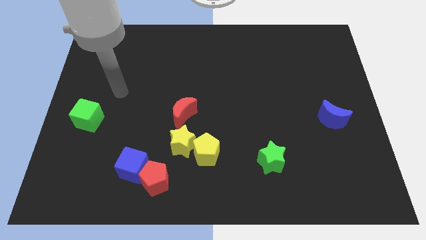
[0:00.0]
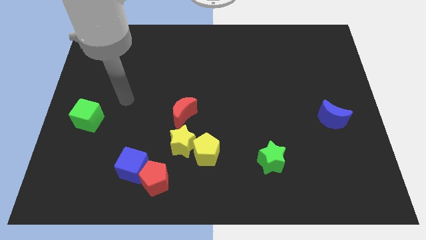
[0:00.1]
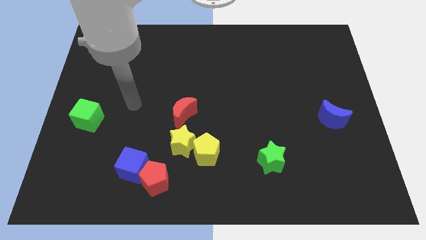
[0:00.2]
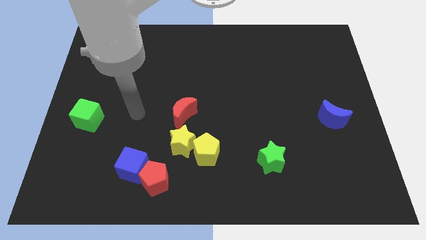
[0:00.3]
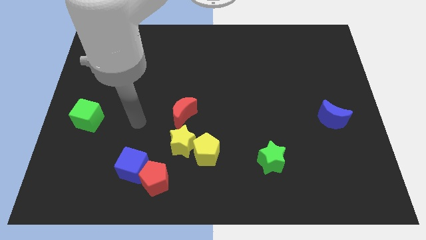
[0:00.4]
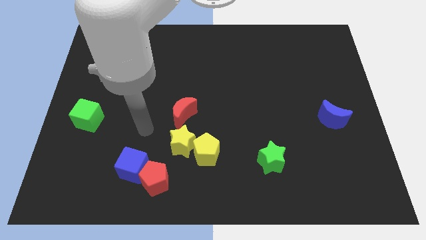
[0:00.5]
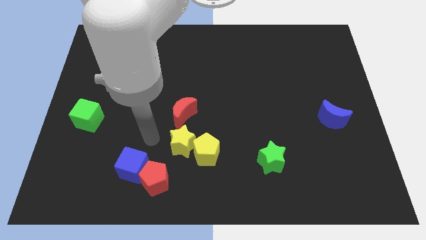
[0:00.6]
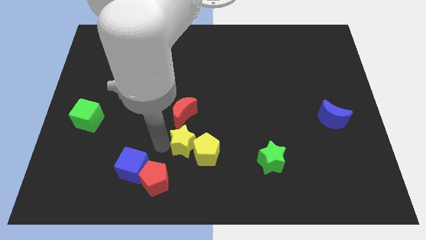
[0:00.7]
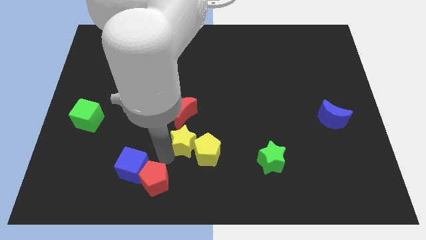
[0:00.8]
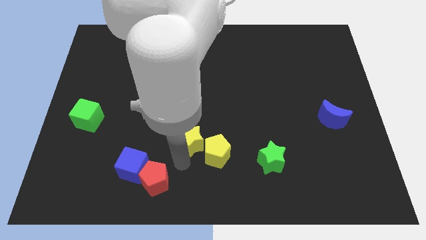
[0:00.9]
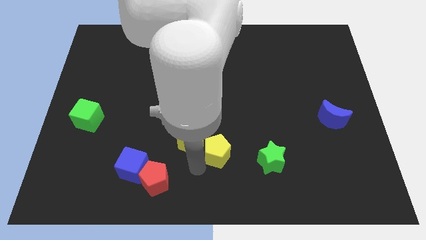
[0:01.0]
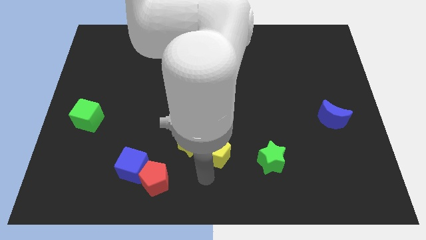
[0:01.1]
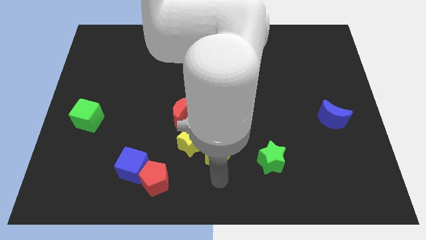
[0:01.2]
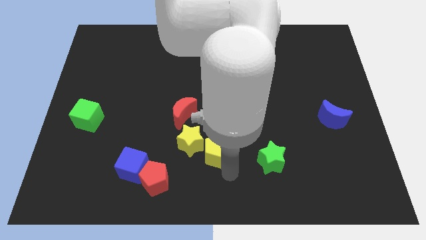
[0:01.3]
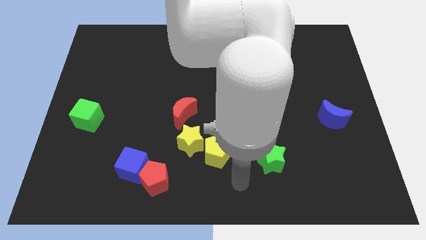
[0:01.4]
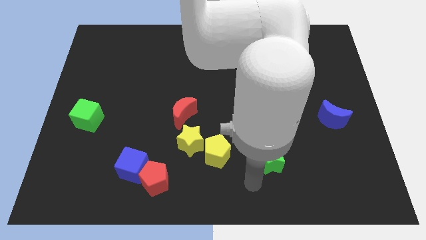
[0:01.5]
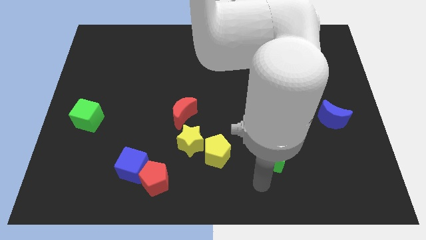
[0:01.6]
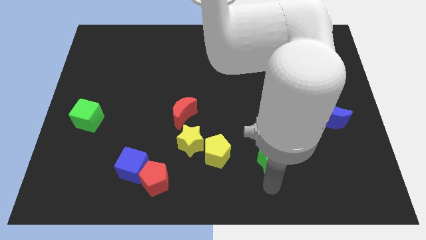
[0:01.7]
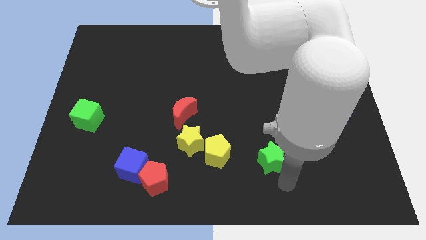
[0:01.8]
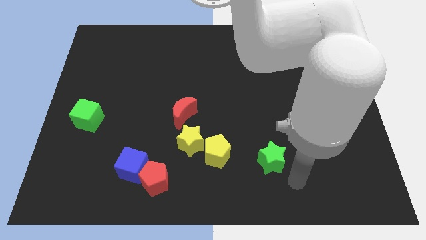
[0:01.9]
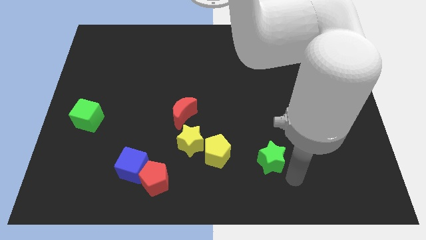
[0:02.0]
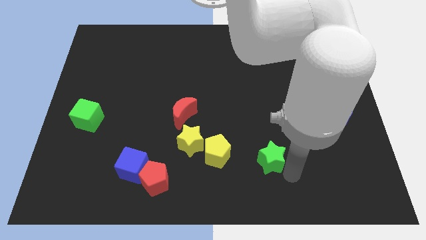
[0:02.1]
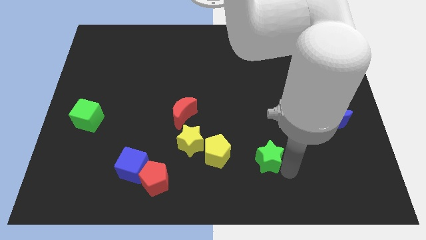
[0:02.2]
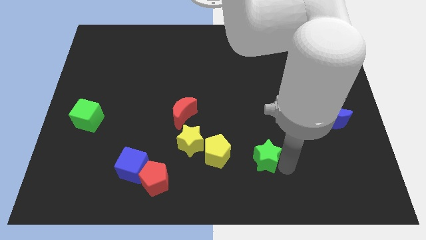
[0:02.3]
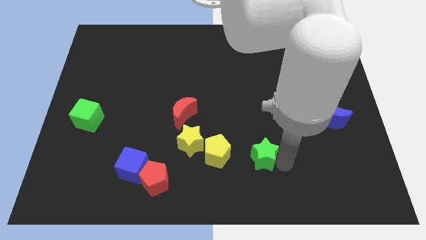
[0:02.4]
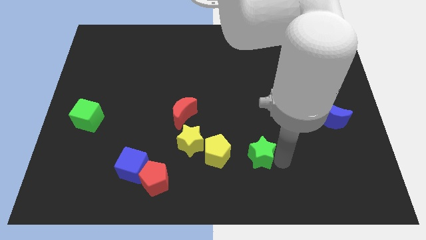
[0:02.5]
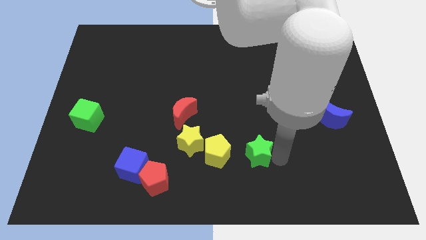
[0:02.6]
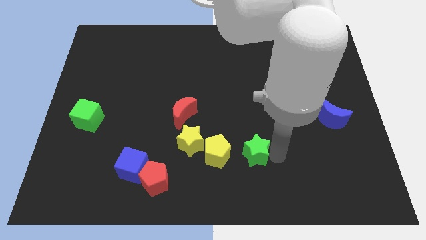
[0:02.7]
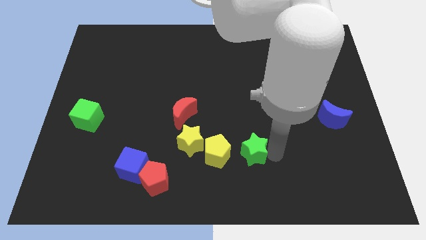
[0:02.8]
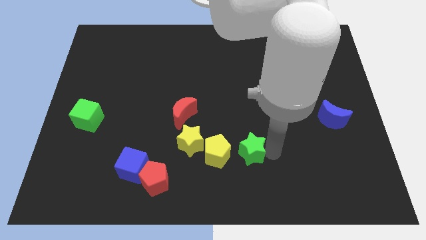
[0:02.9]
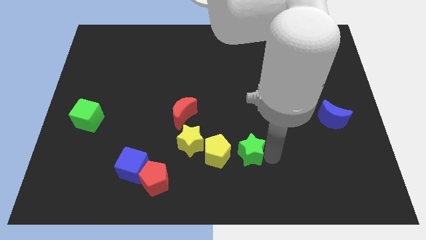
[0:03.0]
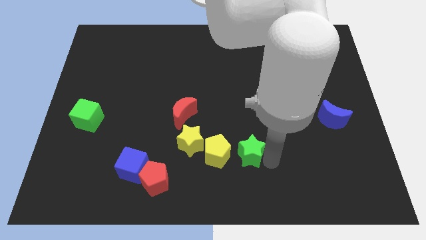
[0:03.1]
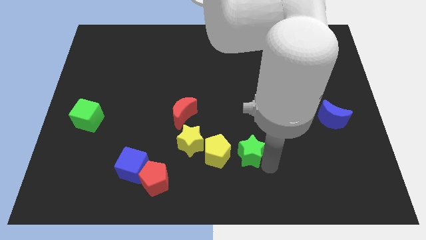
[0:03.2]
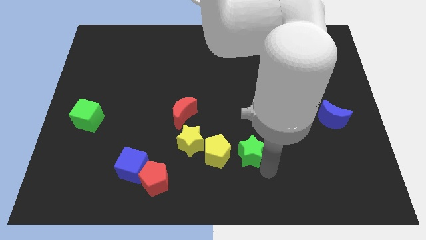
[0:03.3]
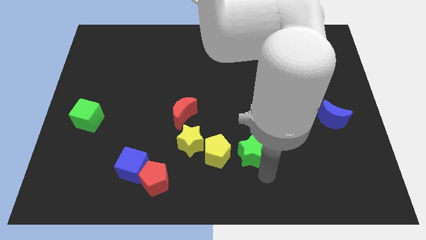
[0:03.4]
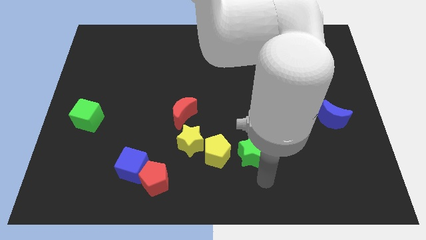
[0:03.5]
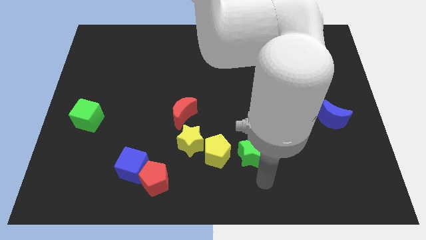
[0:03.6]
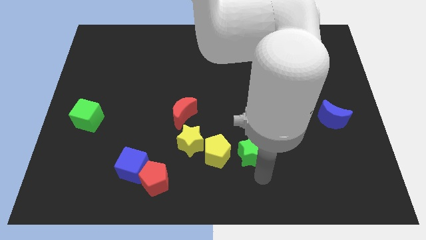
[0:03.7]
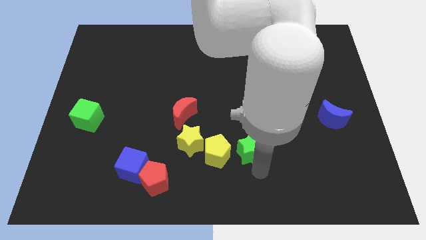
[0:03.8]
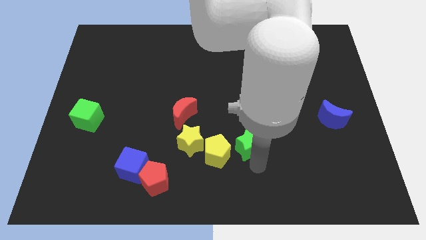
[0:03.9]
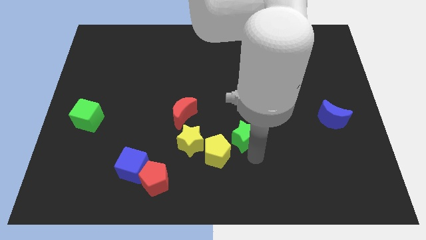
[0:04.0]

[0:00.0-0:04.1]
slightly push the green star upwards and then to the left

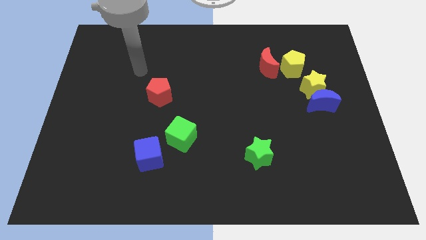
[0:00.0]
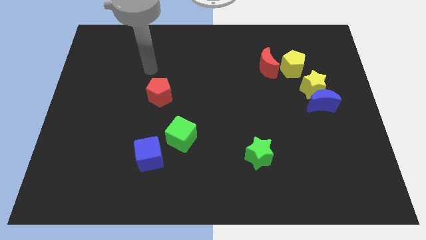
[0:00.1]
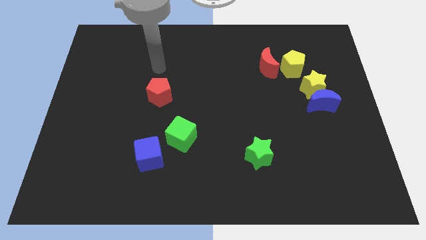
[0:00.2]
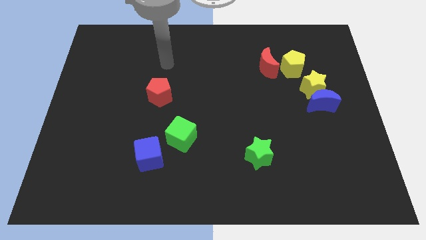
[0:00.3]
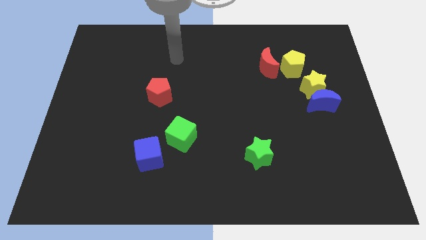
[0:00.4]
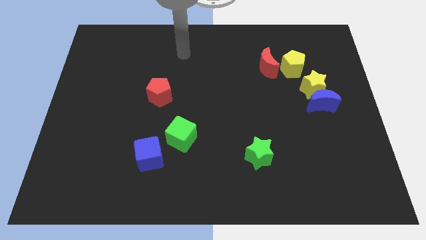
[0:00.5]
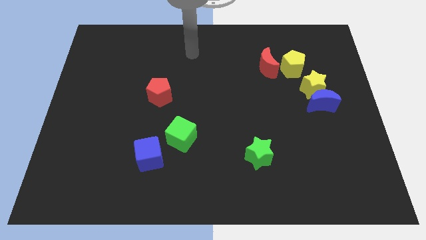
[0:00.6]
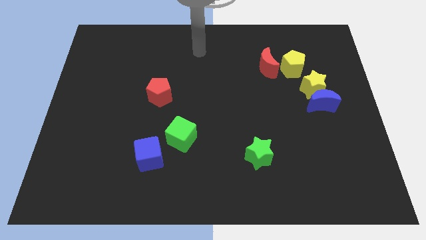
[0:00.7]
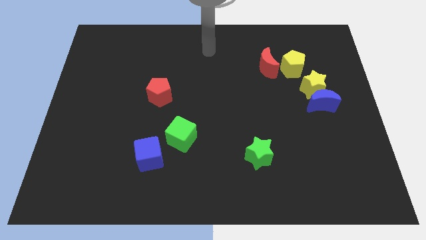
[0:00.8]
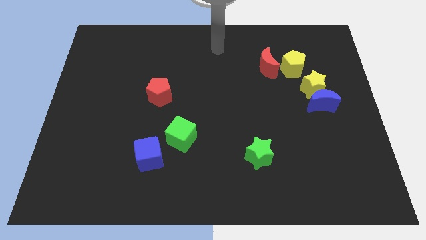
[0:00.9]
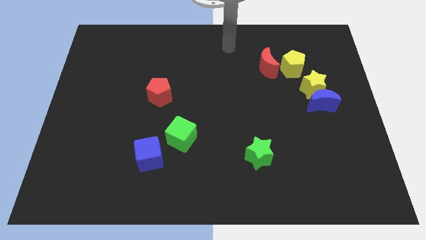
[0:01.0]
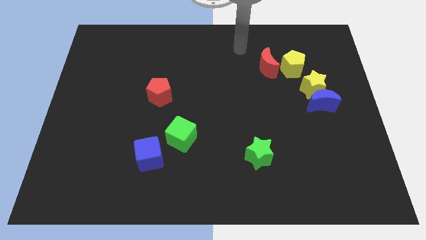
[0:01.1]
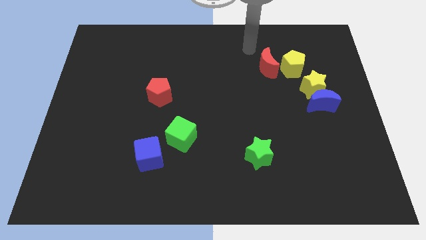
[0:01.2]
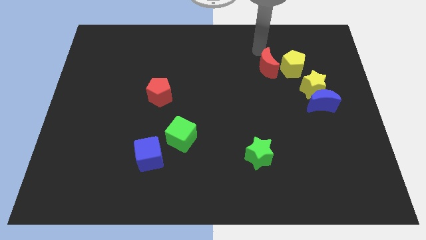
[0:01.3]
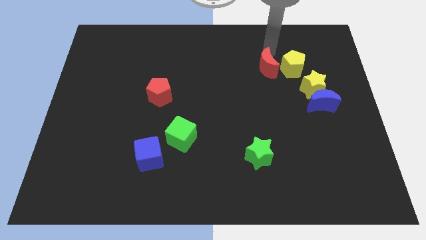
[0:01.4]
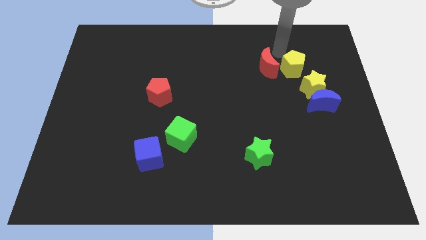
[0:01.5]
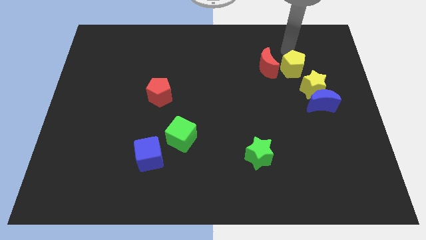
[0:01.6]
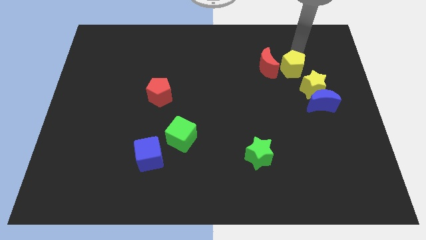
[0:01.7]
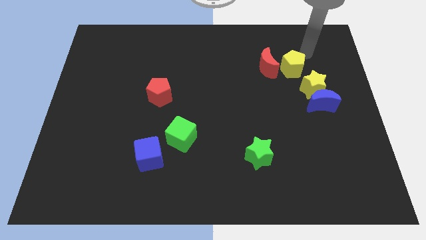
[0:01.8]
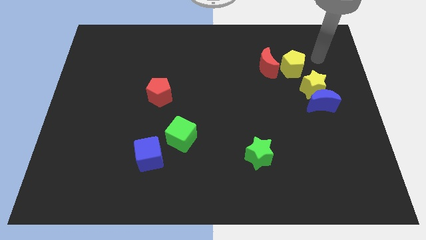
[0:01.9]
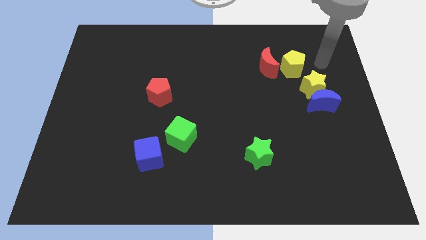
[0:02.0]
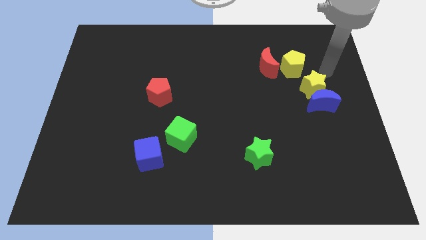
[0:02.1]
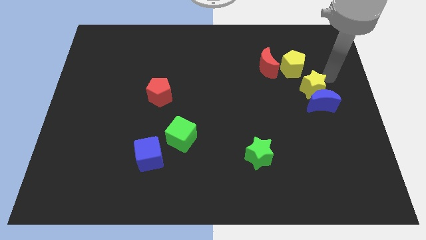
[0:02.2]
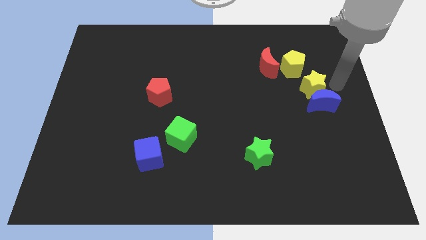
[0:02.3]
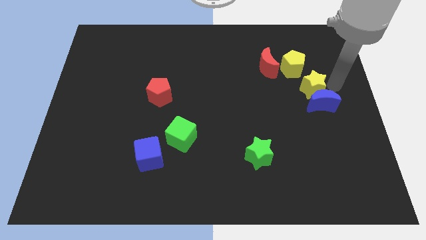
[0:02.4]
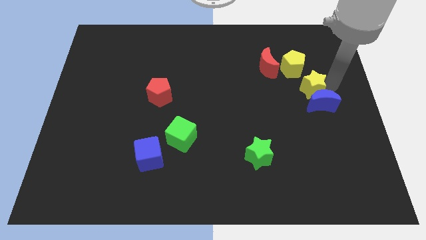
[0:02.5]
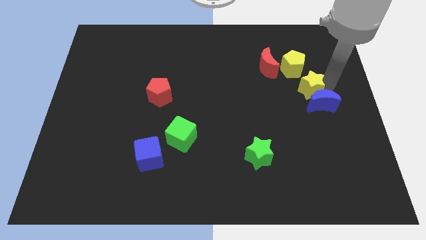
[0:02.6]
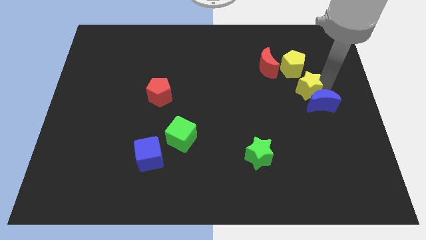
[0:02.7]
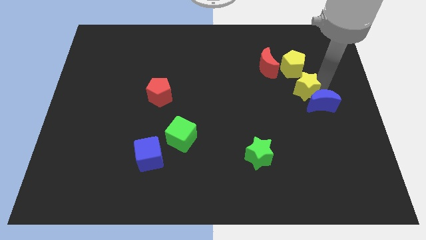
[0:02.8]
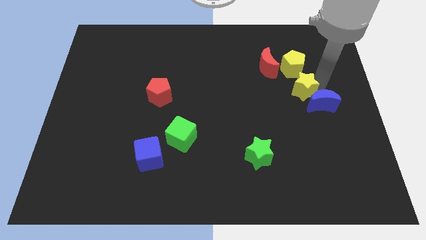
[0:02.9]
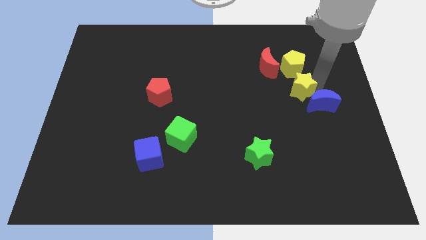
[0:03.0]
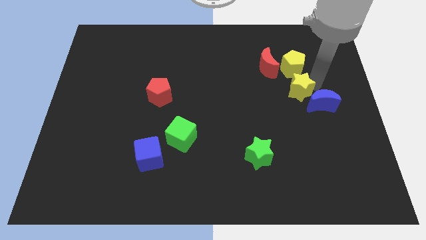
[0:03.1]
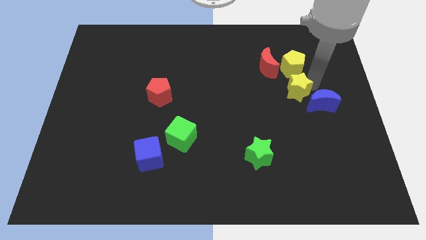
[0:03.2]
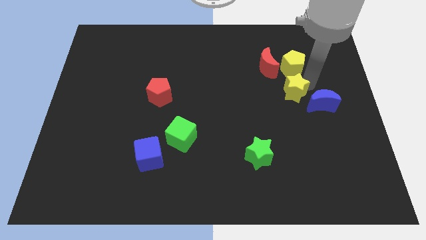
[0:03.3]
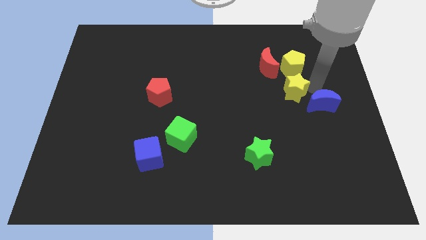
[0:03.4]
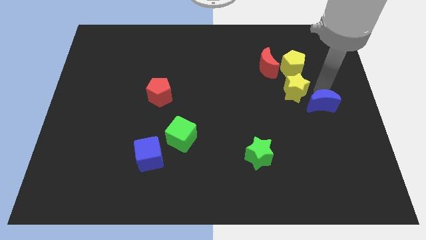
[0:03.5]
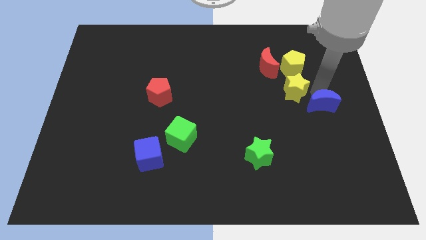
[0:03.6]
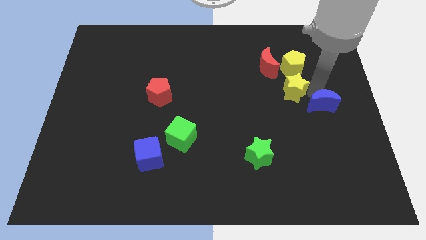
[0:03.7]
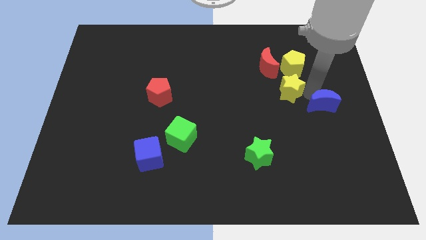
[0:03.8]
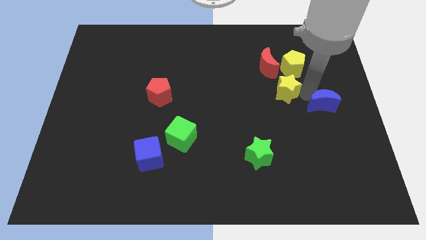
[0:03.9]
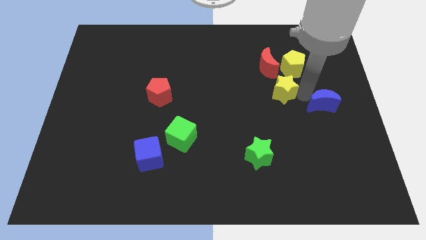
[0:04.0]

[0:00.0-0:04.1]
slide the yellow star a little bit to the left
